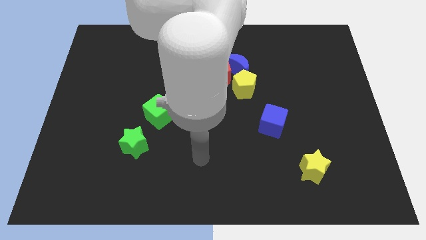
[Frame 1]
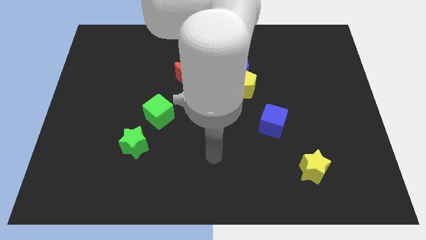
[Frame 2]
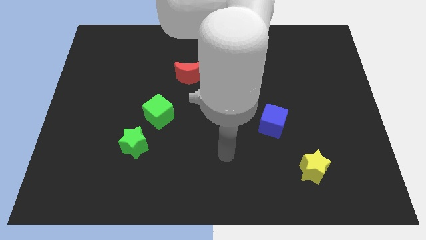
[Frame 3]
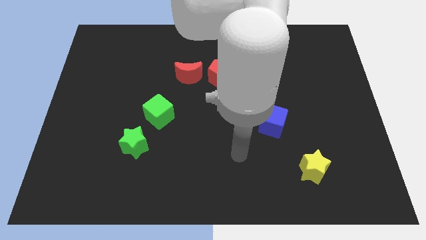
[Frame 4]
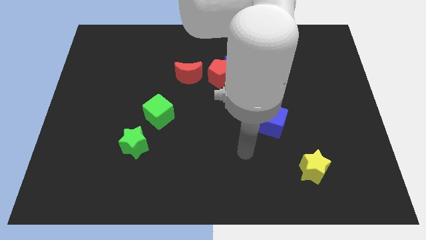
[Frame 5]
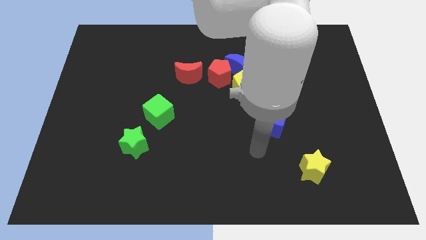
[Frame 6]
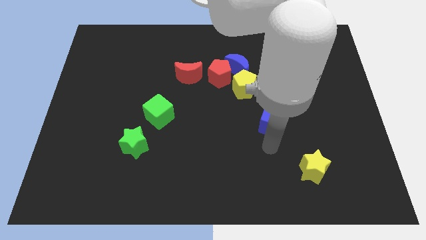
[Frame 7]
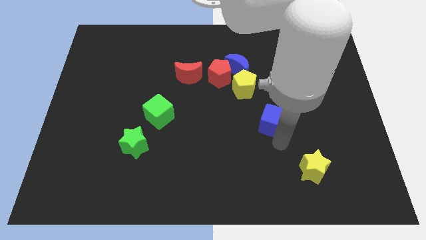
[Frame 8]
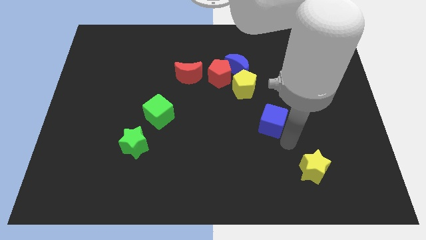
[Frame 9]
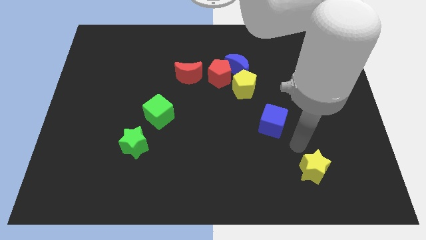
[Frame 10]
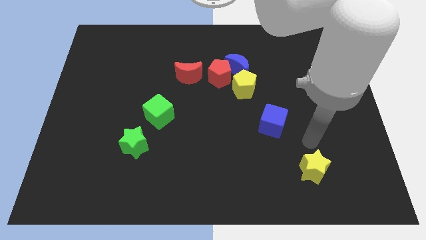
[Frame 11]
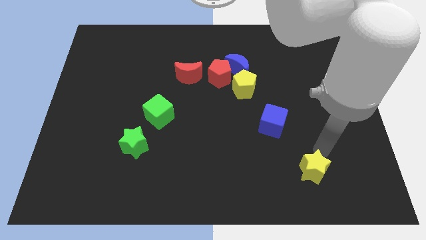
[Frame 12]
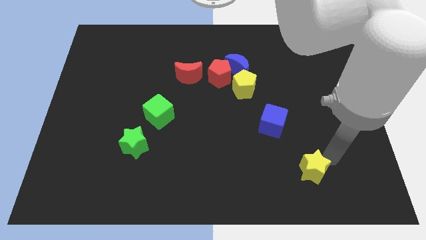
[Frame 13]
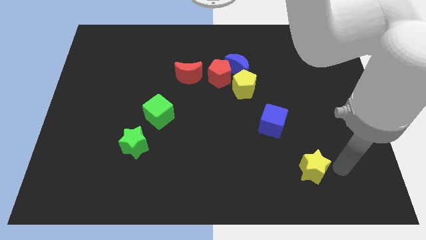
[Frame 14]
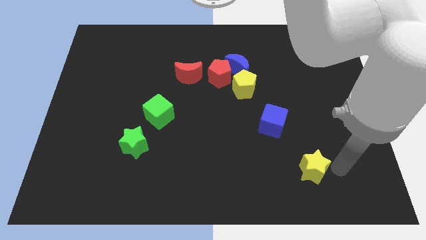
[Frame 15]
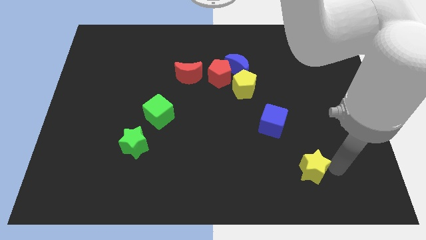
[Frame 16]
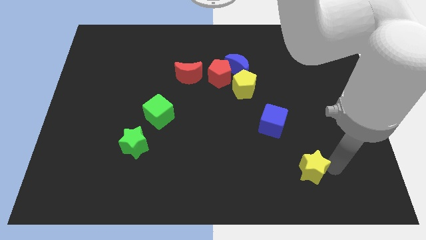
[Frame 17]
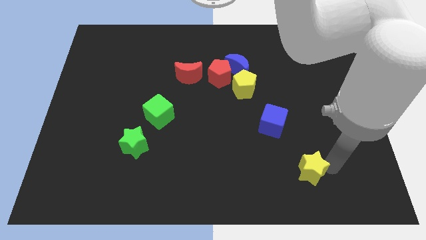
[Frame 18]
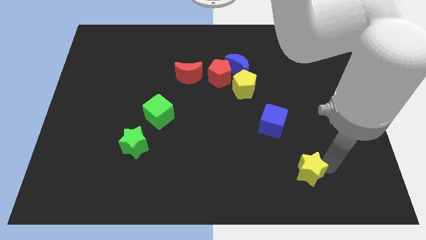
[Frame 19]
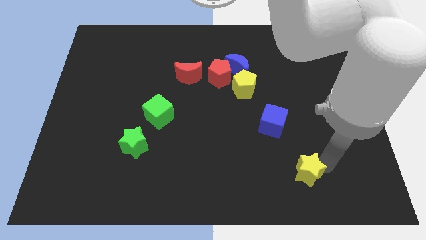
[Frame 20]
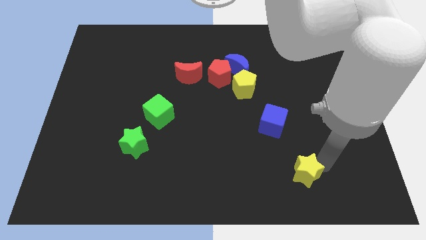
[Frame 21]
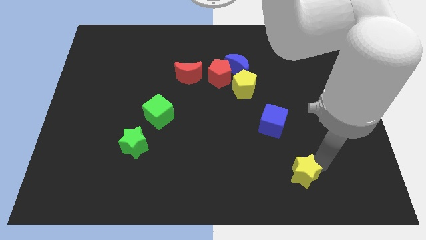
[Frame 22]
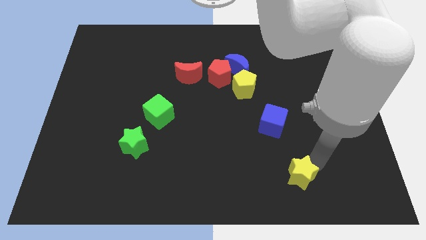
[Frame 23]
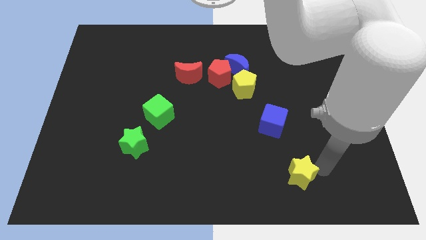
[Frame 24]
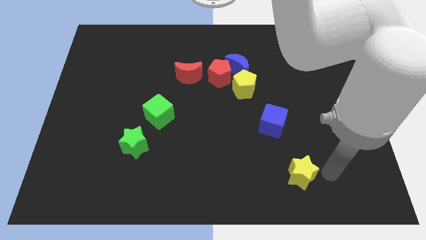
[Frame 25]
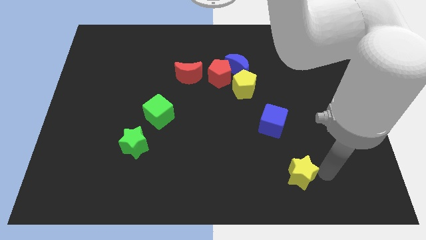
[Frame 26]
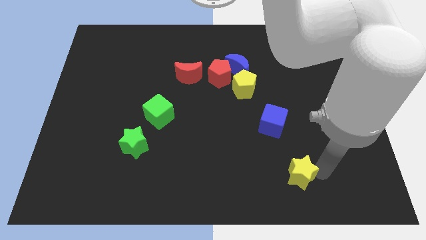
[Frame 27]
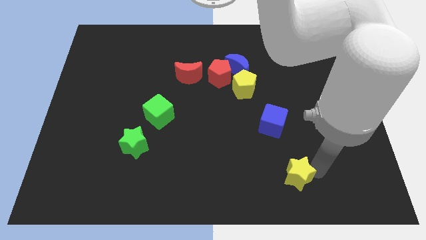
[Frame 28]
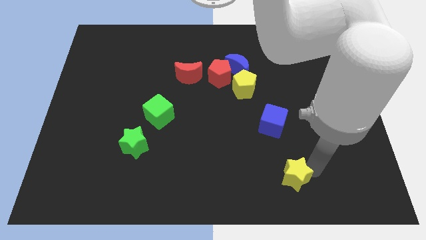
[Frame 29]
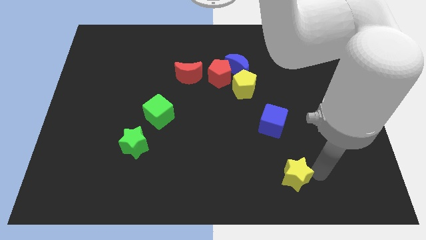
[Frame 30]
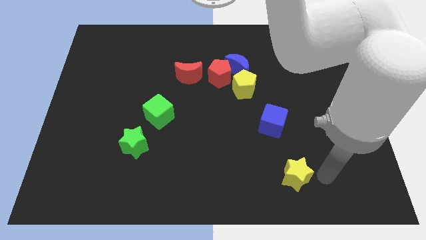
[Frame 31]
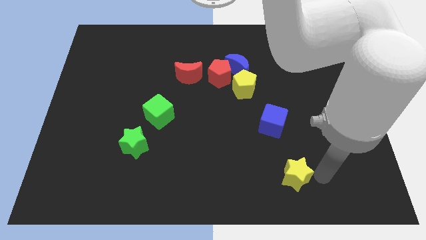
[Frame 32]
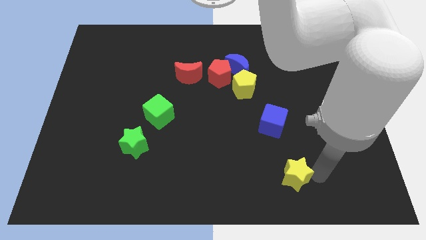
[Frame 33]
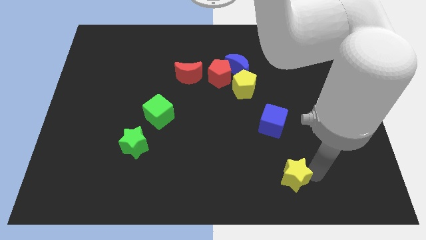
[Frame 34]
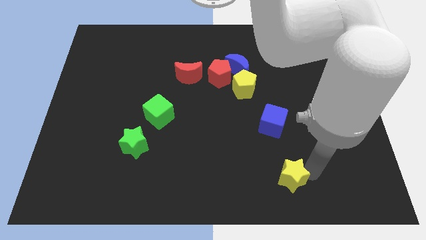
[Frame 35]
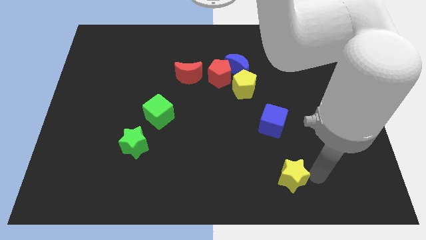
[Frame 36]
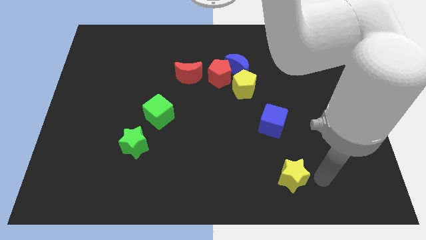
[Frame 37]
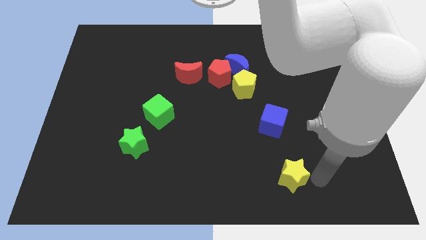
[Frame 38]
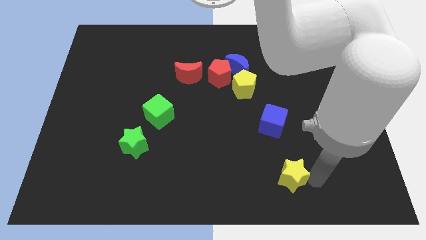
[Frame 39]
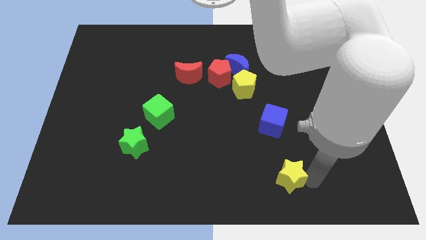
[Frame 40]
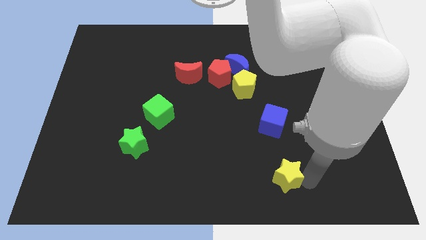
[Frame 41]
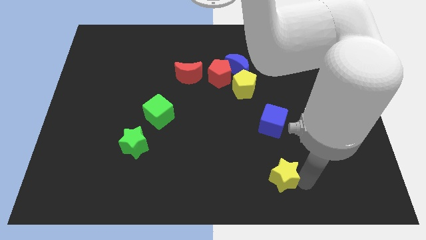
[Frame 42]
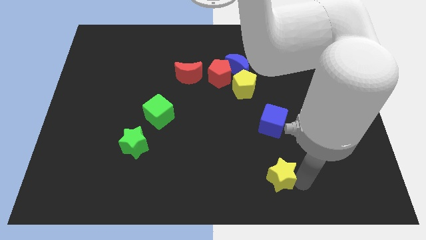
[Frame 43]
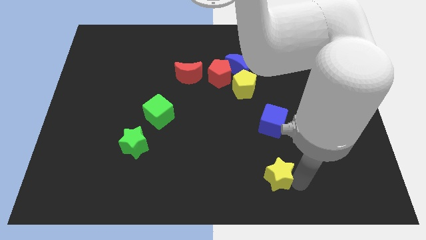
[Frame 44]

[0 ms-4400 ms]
push the yellow star to the left a little

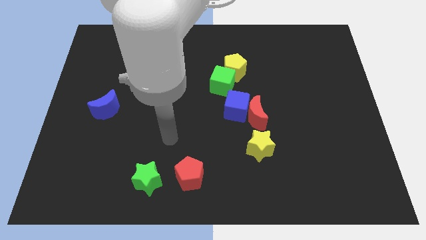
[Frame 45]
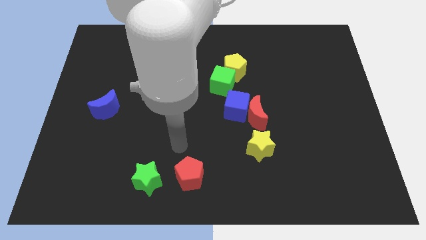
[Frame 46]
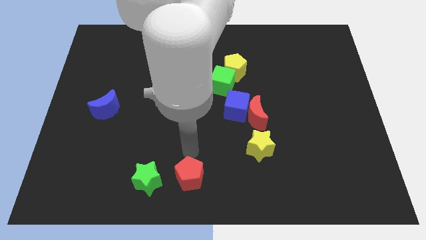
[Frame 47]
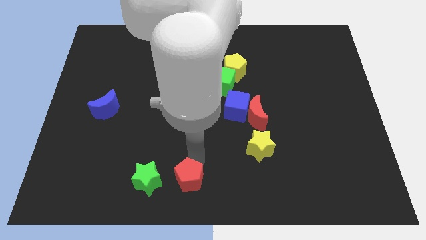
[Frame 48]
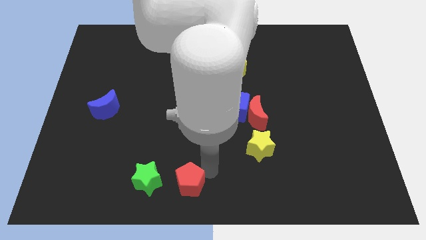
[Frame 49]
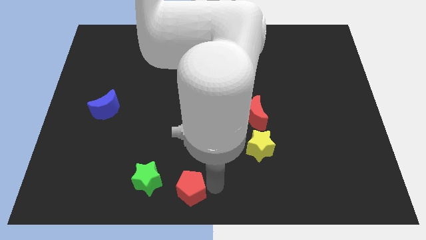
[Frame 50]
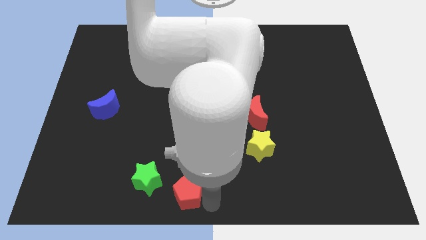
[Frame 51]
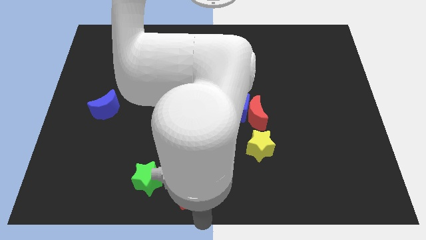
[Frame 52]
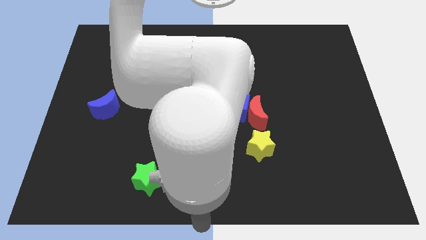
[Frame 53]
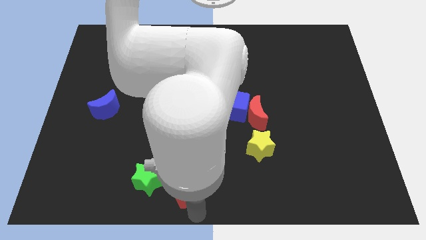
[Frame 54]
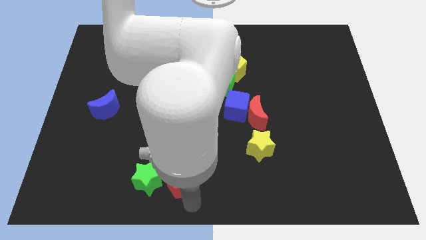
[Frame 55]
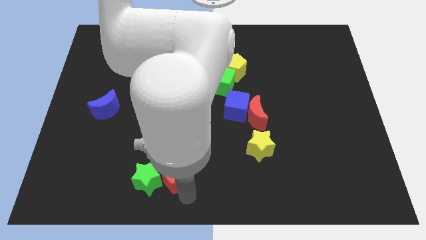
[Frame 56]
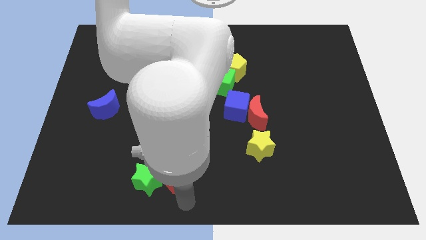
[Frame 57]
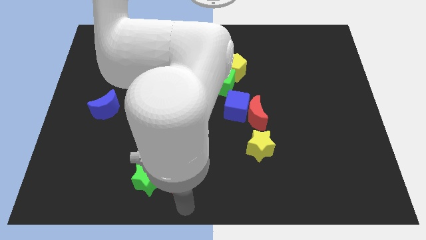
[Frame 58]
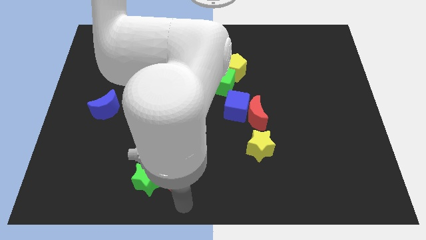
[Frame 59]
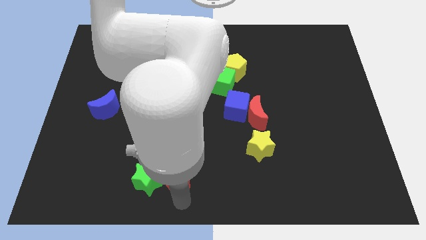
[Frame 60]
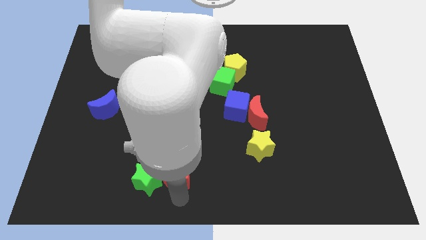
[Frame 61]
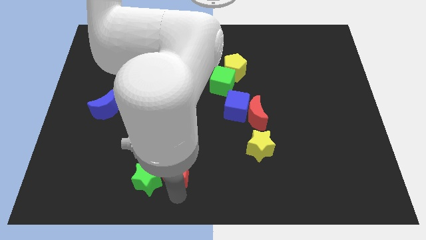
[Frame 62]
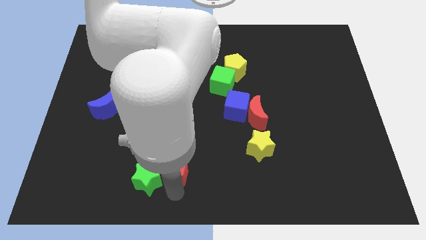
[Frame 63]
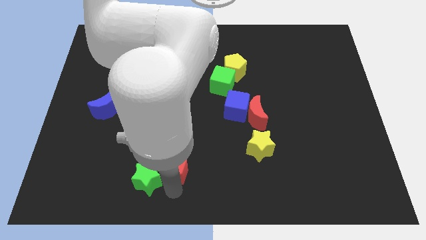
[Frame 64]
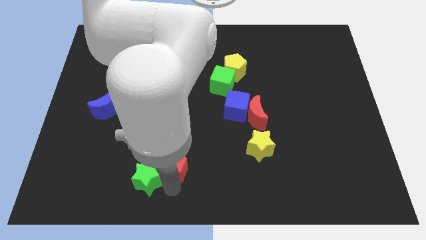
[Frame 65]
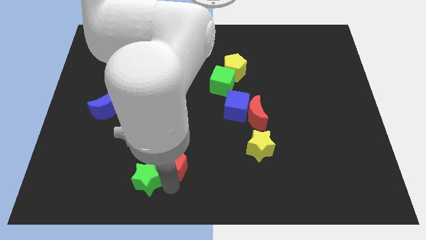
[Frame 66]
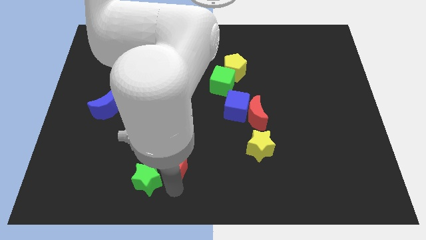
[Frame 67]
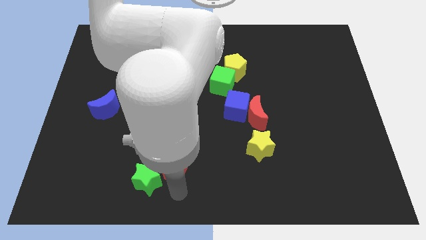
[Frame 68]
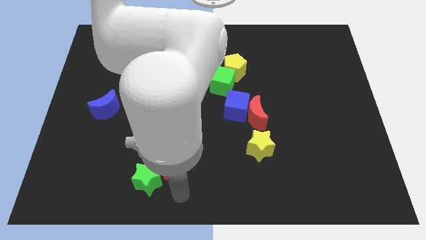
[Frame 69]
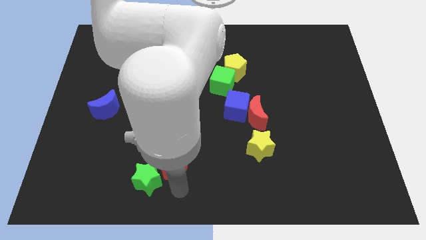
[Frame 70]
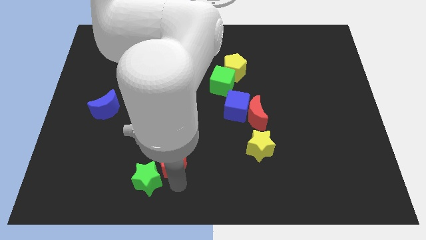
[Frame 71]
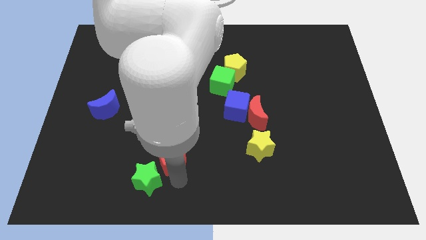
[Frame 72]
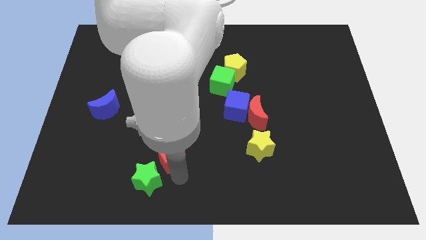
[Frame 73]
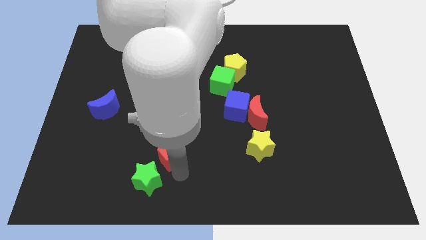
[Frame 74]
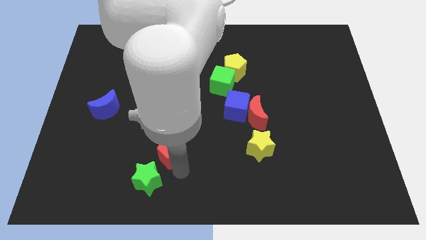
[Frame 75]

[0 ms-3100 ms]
move the red pentagon up and left slightly

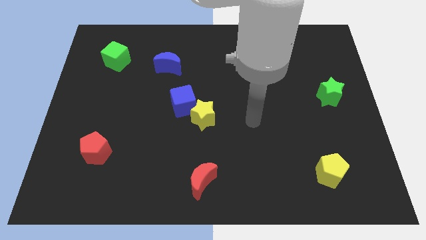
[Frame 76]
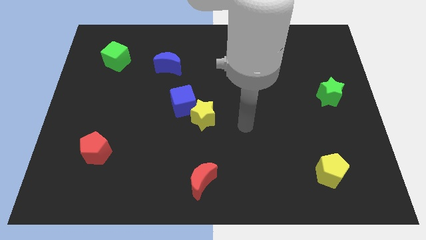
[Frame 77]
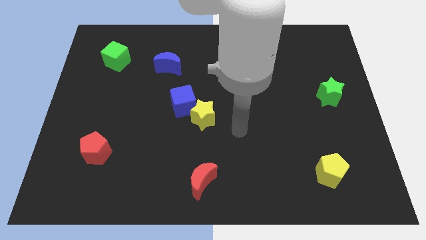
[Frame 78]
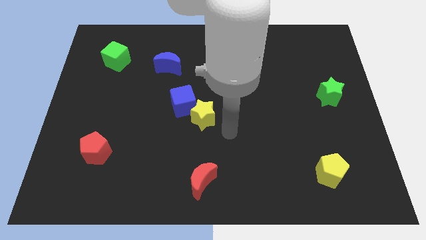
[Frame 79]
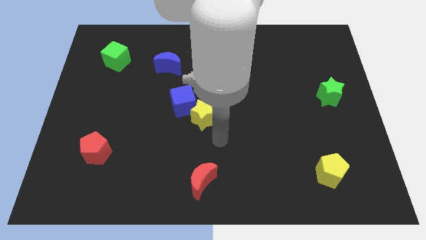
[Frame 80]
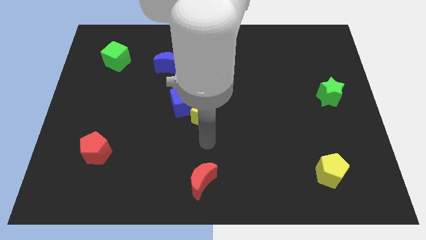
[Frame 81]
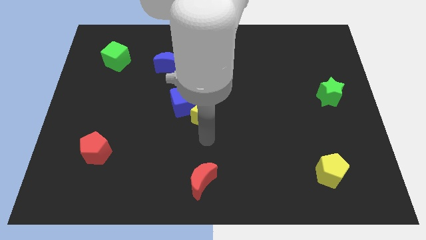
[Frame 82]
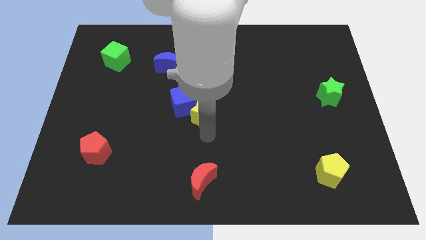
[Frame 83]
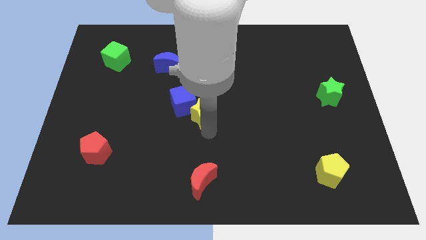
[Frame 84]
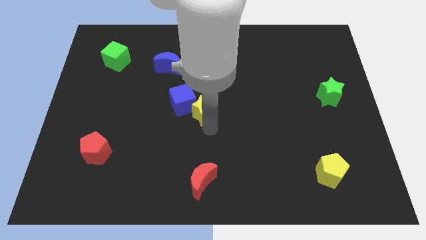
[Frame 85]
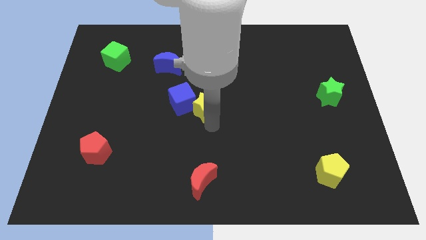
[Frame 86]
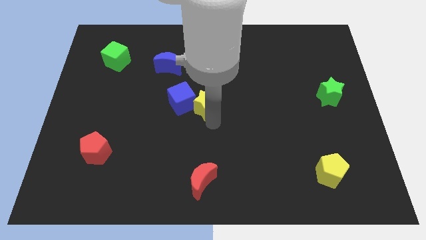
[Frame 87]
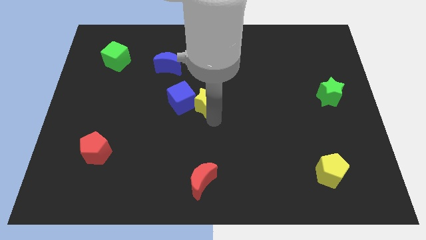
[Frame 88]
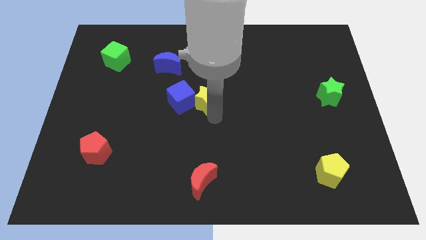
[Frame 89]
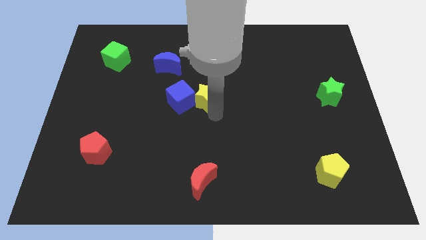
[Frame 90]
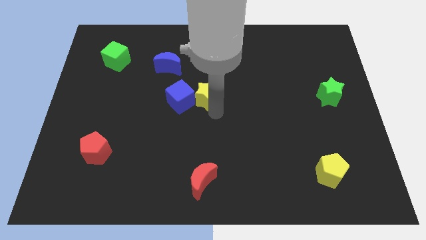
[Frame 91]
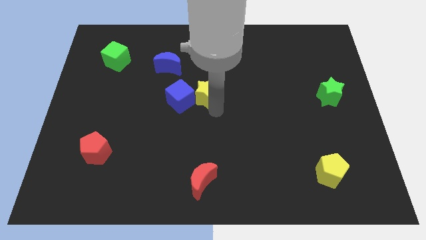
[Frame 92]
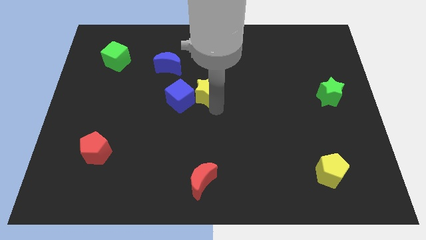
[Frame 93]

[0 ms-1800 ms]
move the yellow star up a little bit
